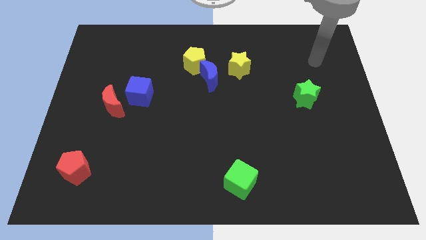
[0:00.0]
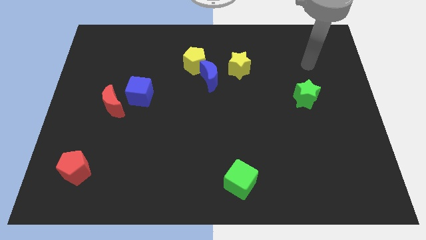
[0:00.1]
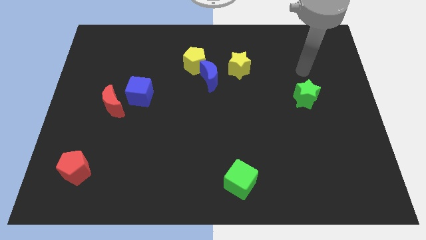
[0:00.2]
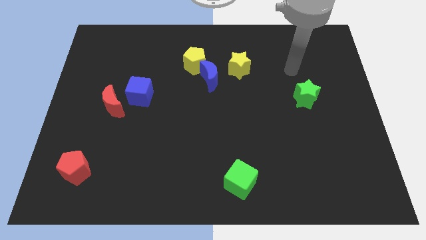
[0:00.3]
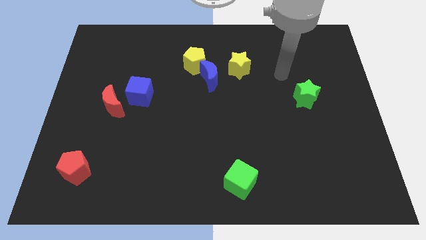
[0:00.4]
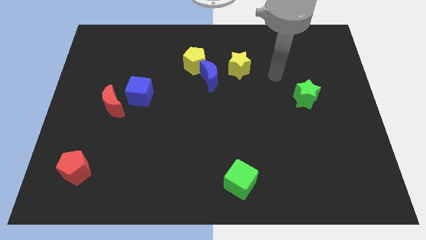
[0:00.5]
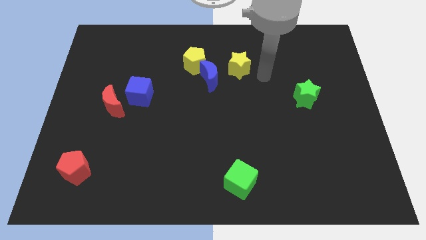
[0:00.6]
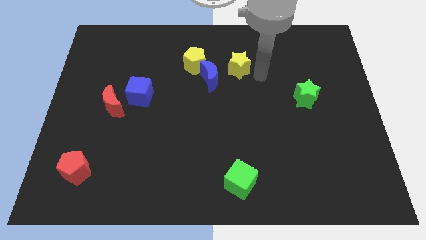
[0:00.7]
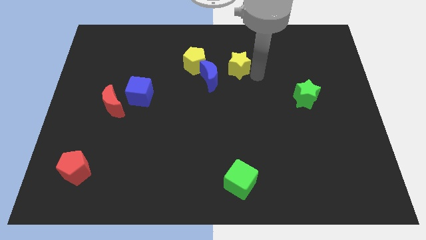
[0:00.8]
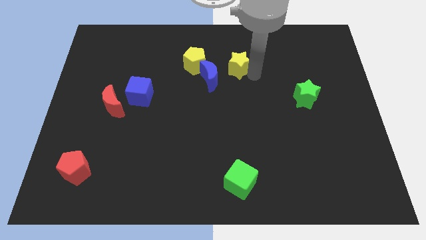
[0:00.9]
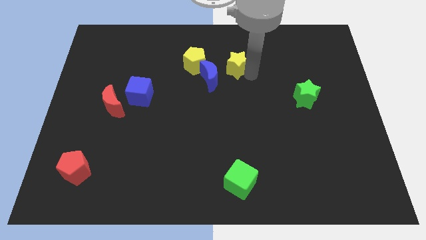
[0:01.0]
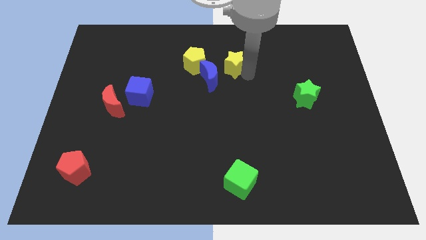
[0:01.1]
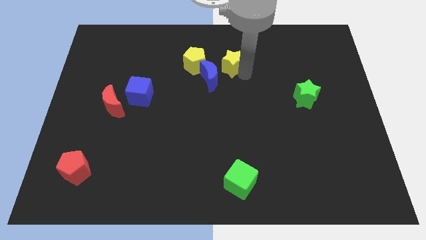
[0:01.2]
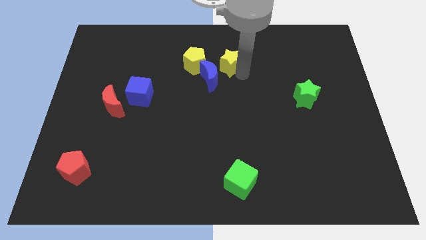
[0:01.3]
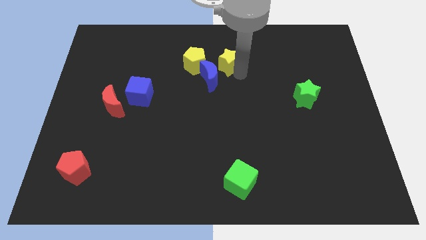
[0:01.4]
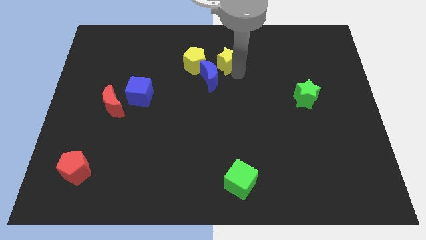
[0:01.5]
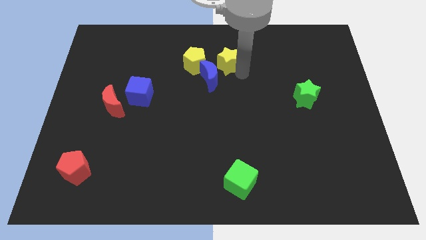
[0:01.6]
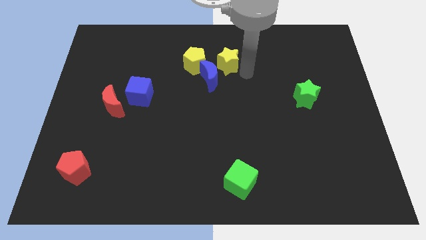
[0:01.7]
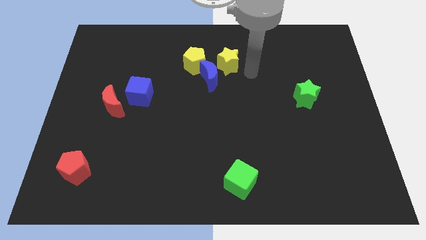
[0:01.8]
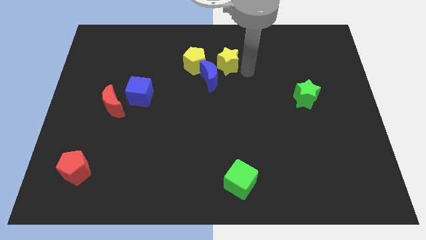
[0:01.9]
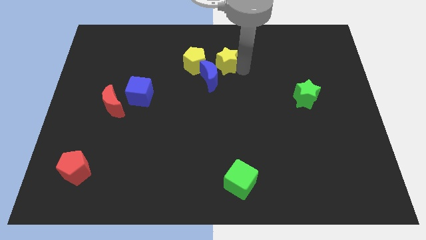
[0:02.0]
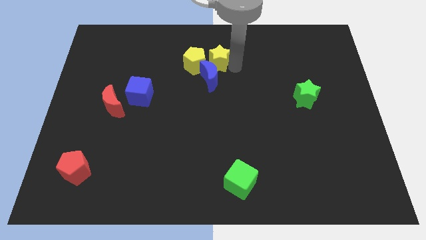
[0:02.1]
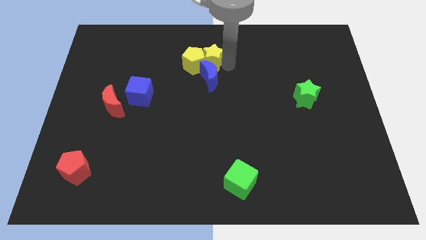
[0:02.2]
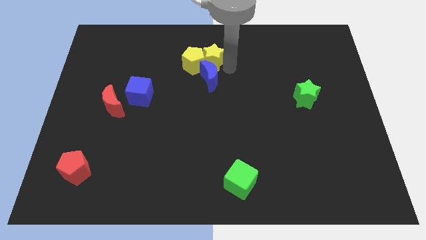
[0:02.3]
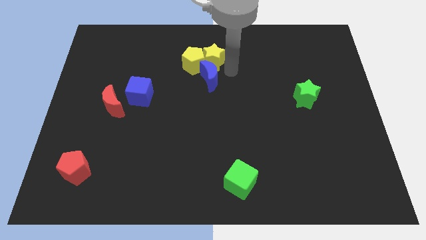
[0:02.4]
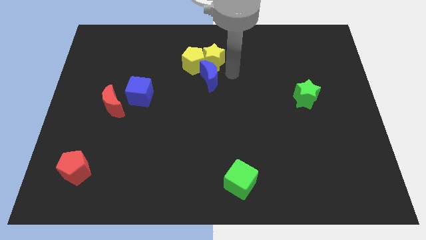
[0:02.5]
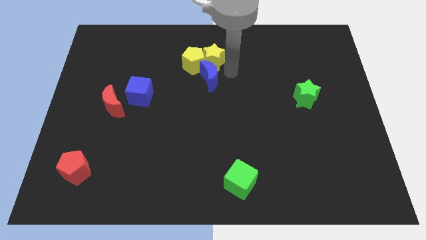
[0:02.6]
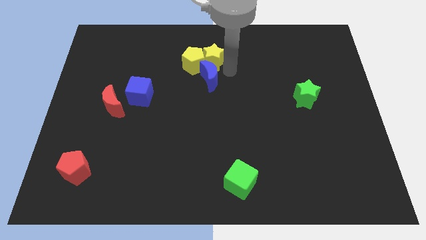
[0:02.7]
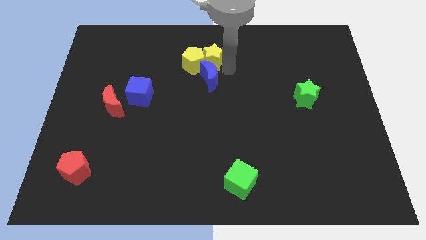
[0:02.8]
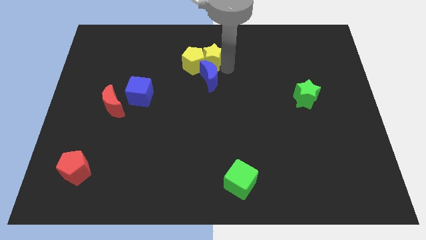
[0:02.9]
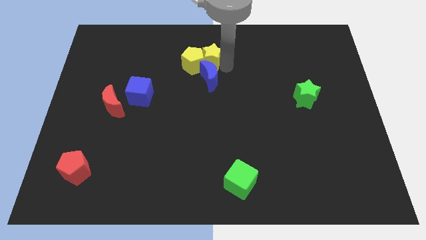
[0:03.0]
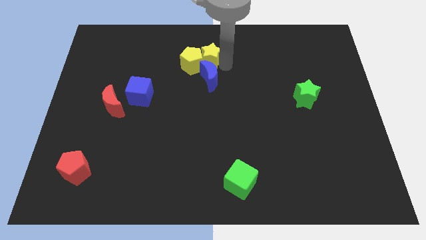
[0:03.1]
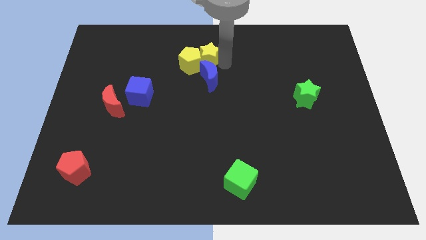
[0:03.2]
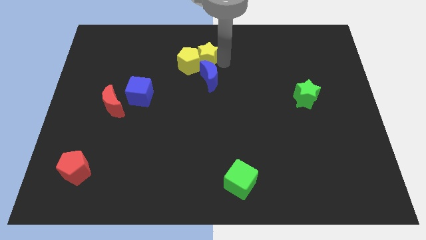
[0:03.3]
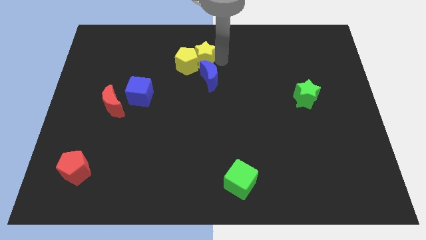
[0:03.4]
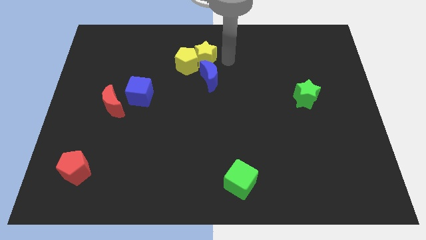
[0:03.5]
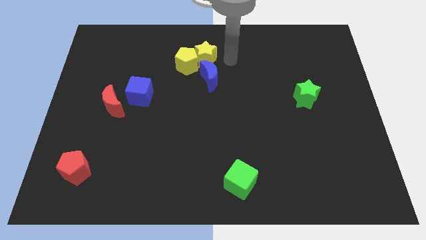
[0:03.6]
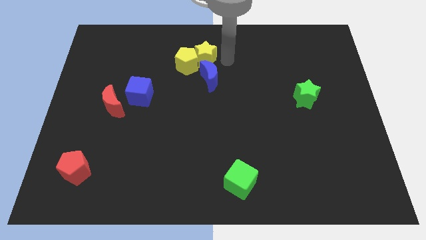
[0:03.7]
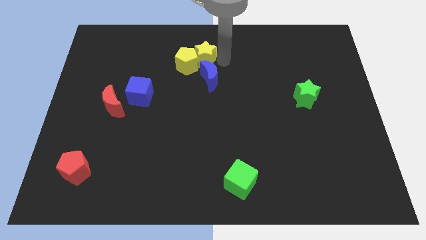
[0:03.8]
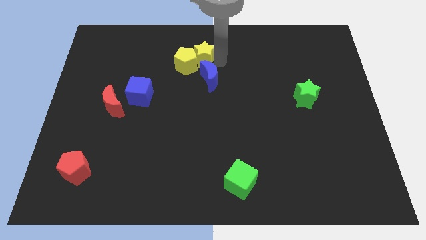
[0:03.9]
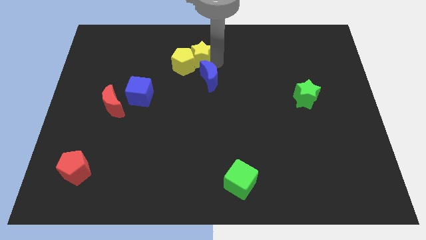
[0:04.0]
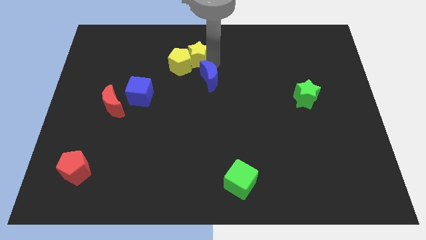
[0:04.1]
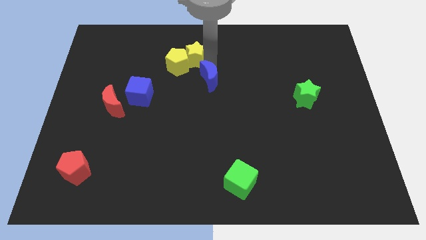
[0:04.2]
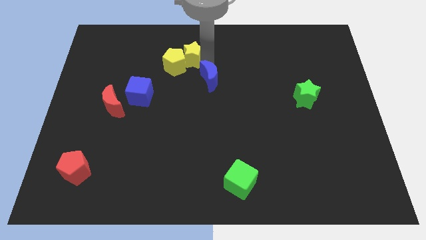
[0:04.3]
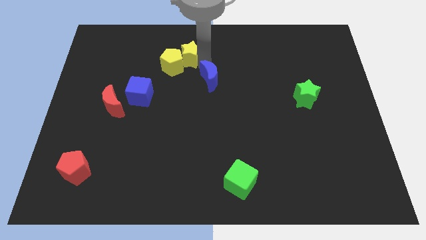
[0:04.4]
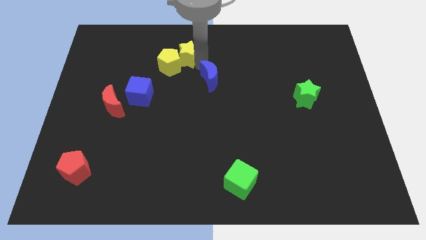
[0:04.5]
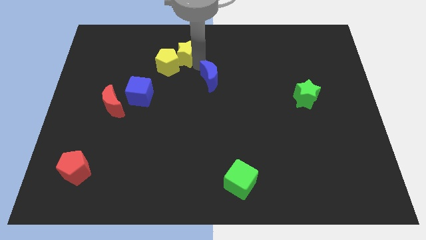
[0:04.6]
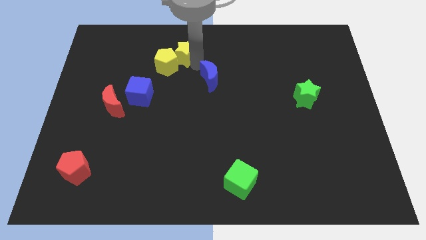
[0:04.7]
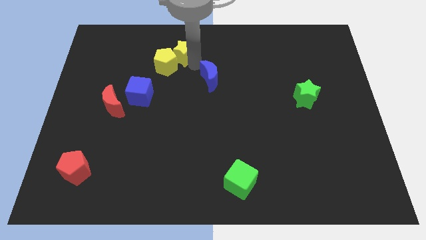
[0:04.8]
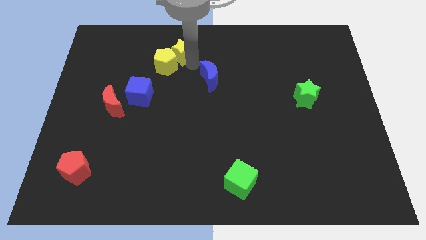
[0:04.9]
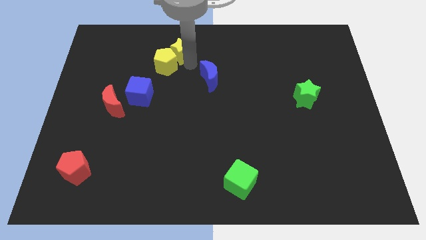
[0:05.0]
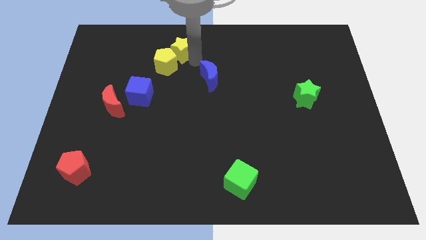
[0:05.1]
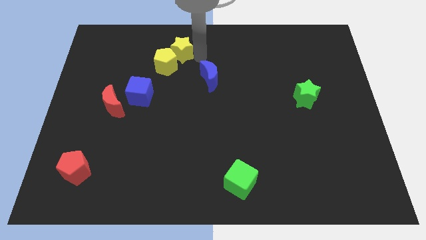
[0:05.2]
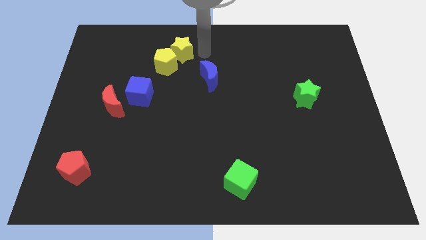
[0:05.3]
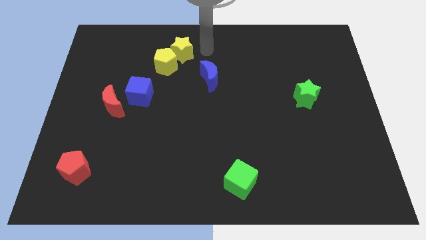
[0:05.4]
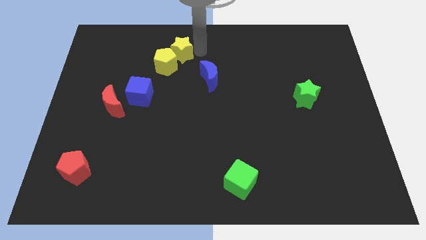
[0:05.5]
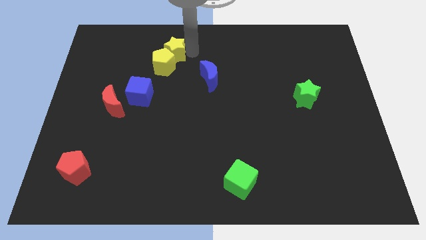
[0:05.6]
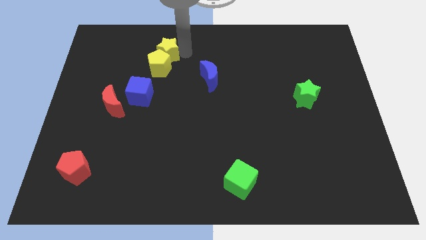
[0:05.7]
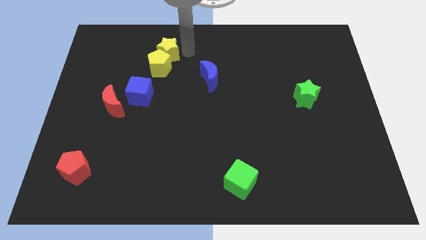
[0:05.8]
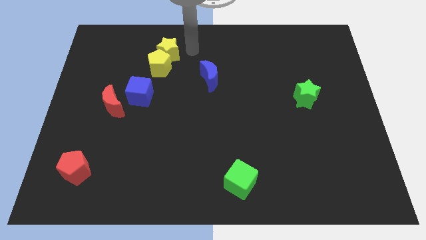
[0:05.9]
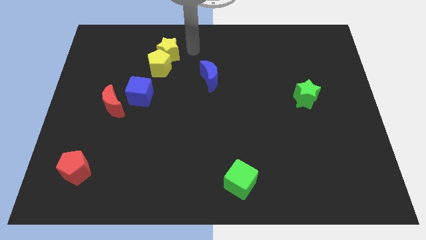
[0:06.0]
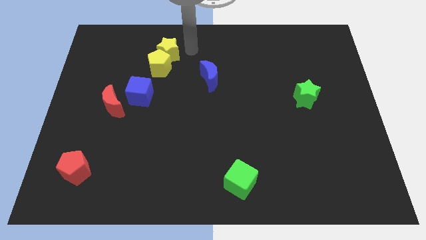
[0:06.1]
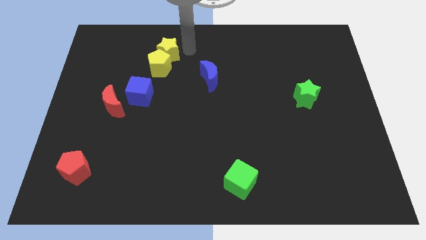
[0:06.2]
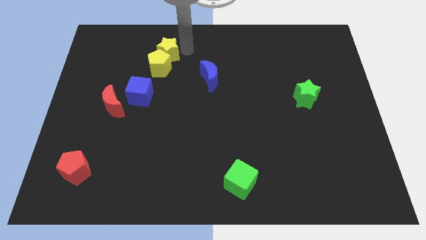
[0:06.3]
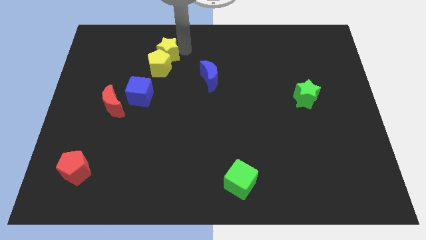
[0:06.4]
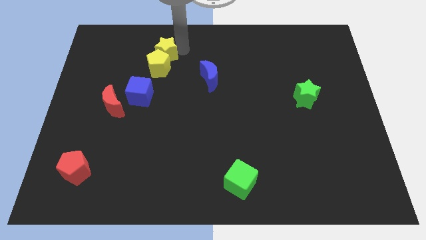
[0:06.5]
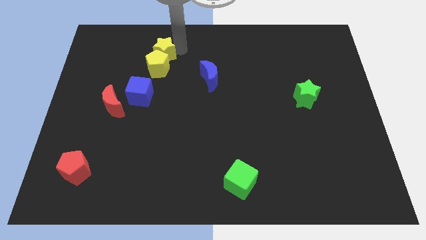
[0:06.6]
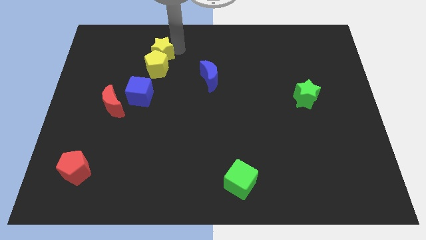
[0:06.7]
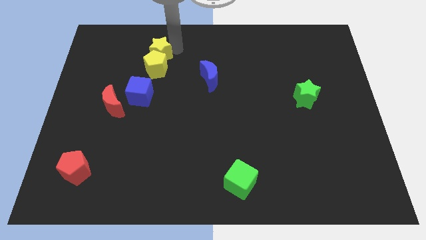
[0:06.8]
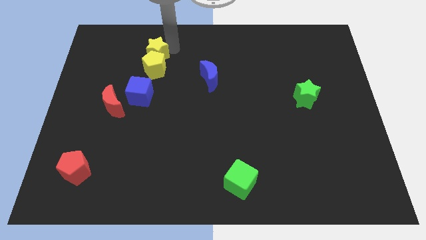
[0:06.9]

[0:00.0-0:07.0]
push the yellow star left

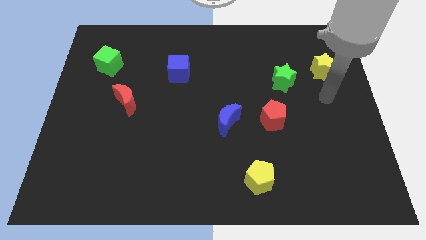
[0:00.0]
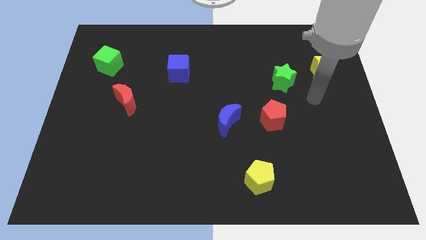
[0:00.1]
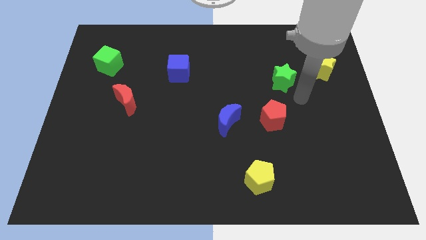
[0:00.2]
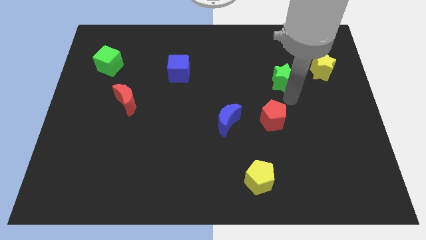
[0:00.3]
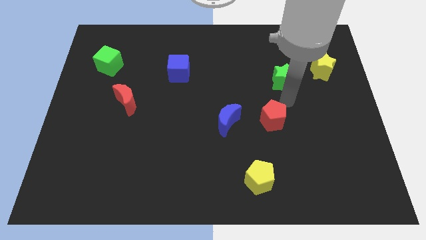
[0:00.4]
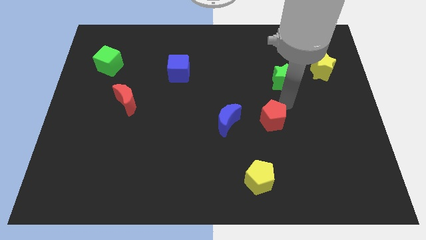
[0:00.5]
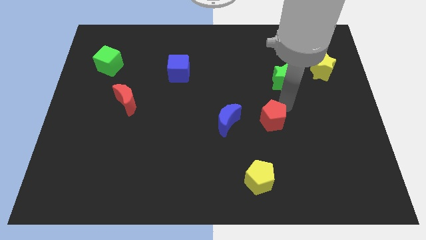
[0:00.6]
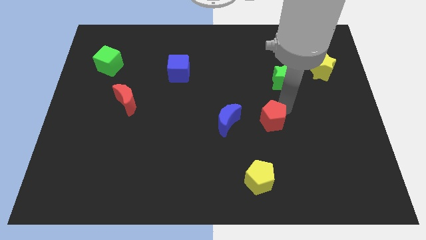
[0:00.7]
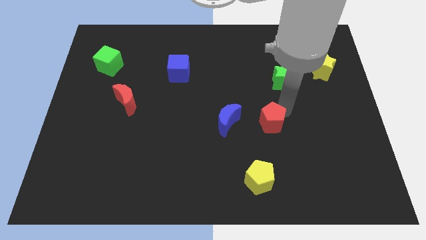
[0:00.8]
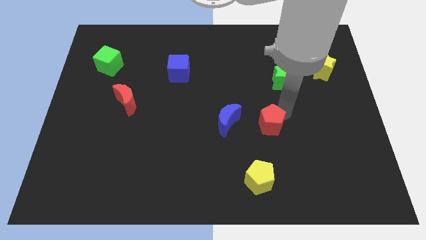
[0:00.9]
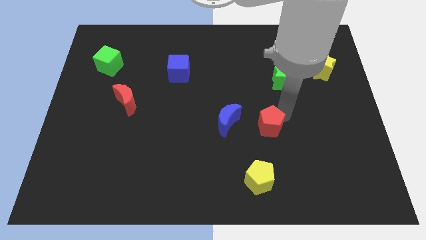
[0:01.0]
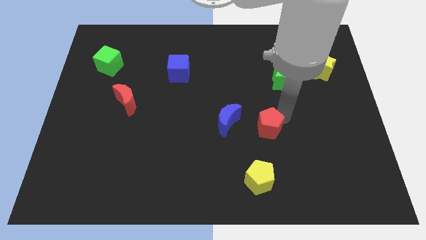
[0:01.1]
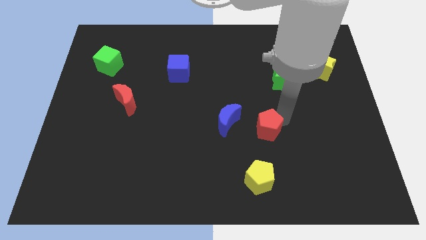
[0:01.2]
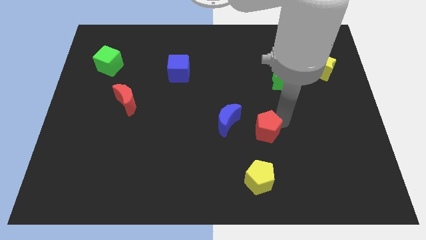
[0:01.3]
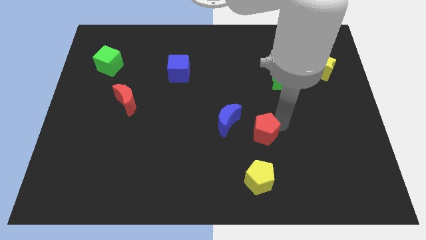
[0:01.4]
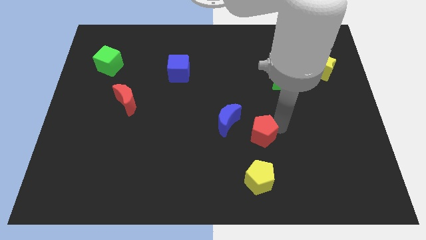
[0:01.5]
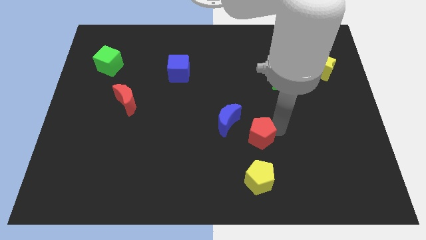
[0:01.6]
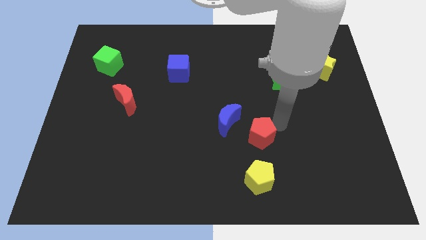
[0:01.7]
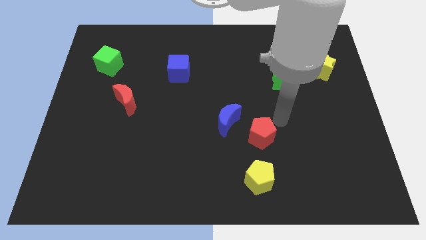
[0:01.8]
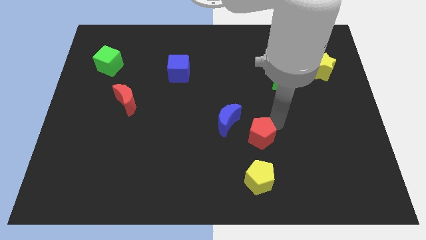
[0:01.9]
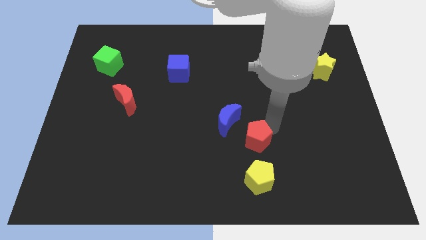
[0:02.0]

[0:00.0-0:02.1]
slide the red pentagon a little bit down and to the left
